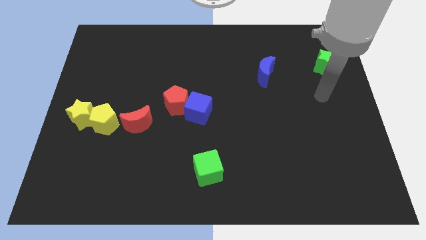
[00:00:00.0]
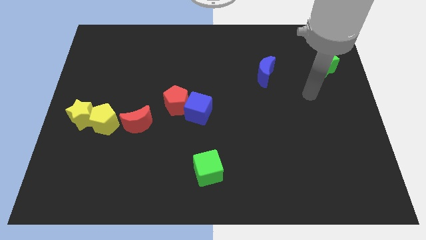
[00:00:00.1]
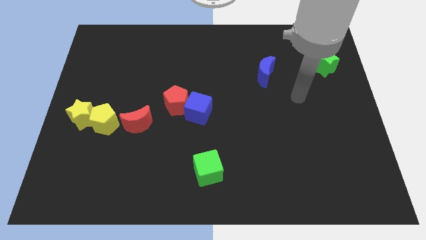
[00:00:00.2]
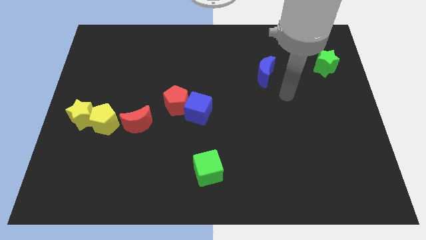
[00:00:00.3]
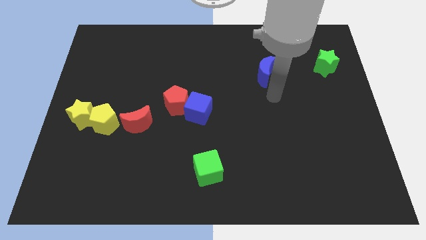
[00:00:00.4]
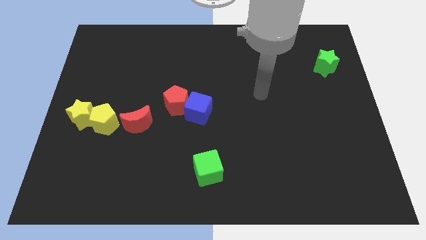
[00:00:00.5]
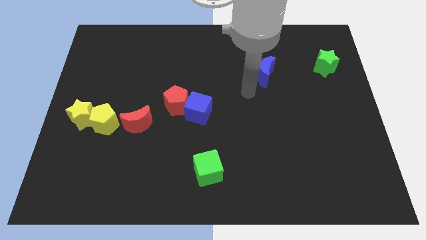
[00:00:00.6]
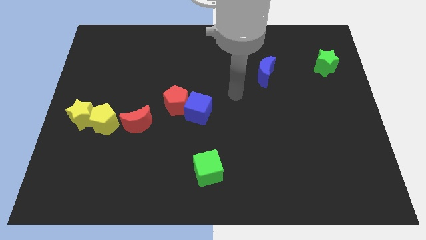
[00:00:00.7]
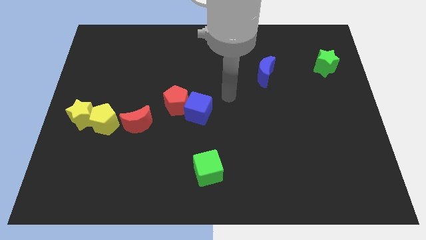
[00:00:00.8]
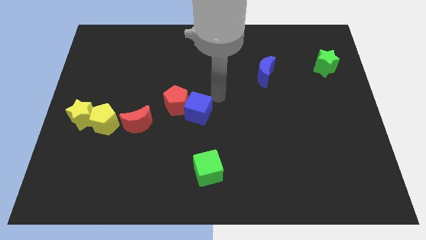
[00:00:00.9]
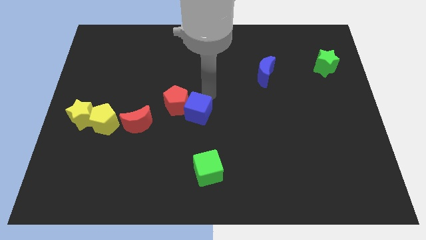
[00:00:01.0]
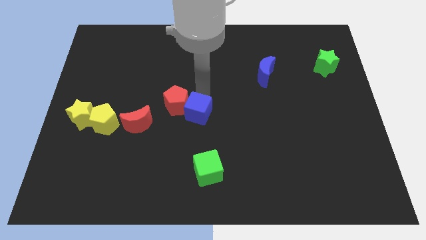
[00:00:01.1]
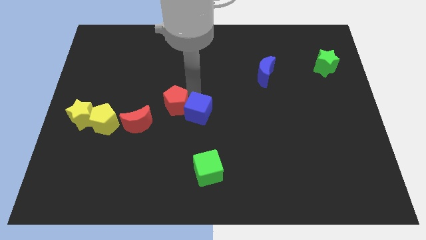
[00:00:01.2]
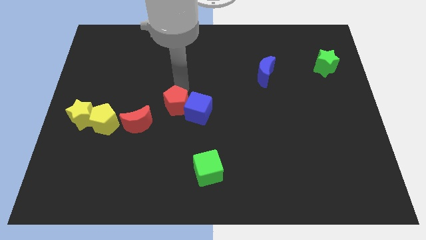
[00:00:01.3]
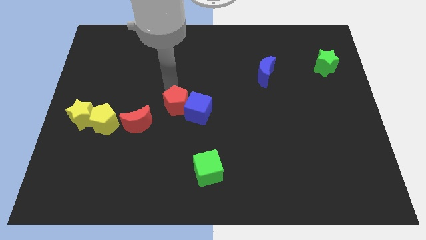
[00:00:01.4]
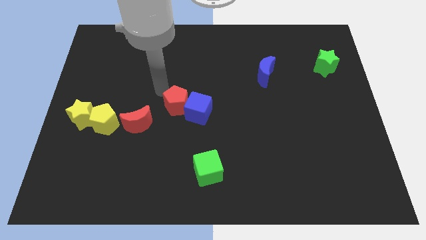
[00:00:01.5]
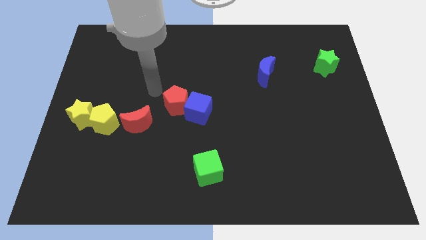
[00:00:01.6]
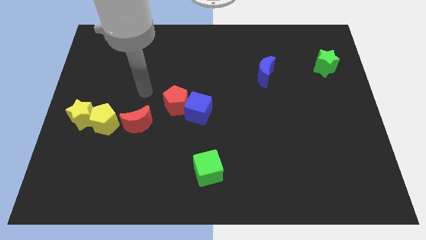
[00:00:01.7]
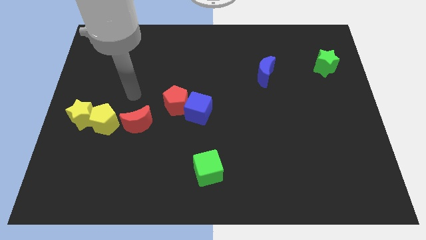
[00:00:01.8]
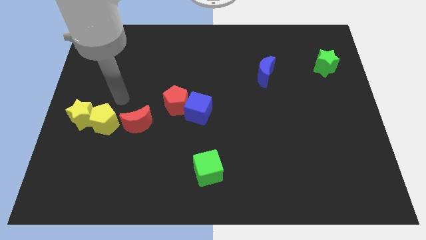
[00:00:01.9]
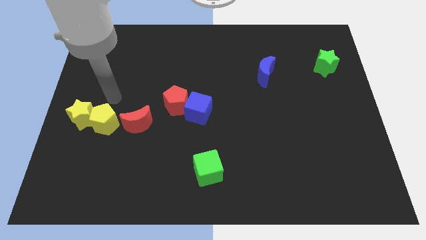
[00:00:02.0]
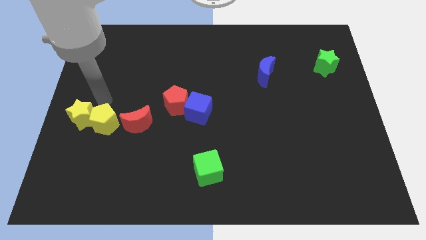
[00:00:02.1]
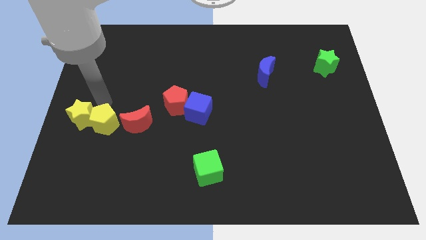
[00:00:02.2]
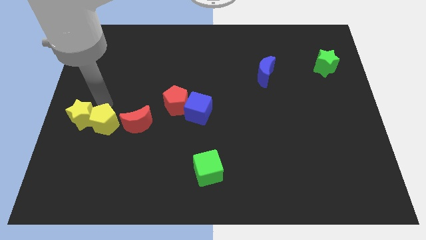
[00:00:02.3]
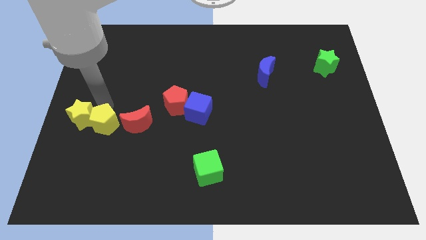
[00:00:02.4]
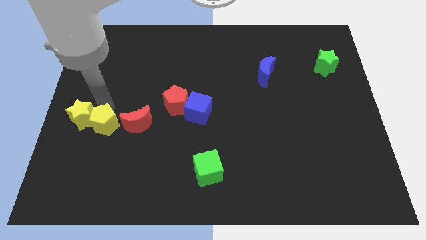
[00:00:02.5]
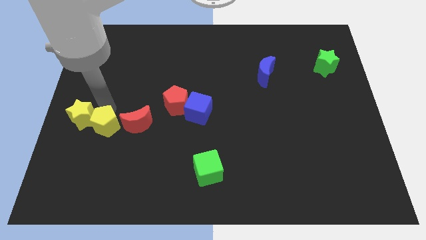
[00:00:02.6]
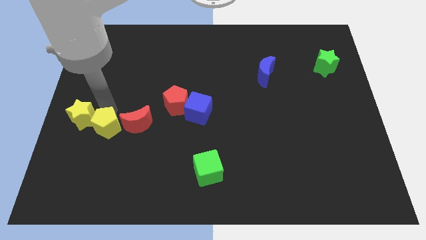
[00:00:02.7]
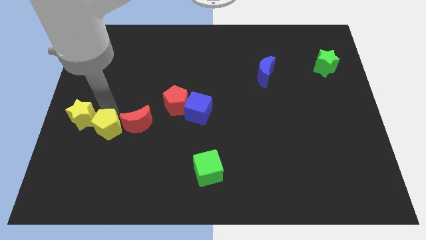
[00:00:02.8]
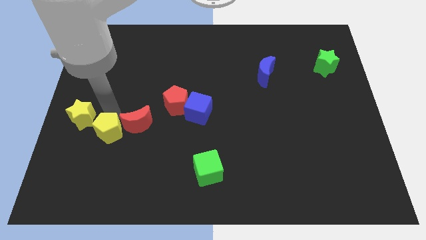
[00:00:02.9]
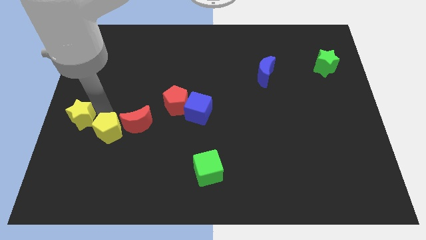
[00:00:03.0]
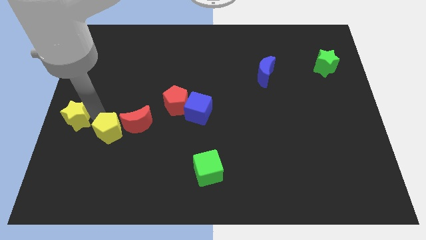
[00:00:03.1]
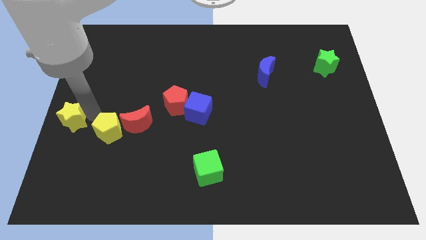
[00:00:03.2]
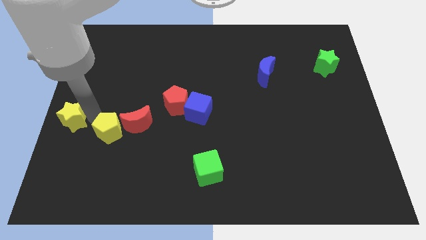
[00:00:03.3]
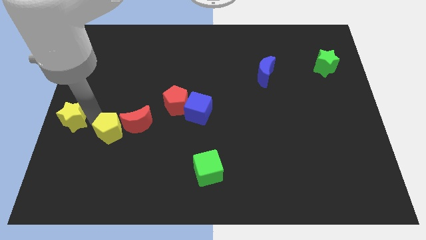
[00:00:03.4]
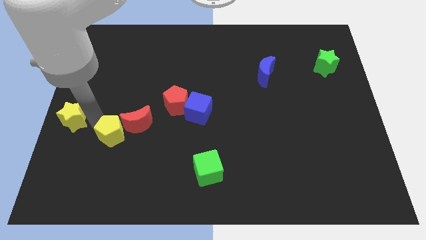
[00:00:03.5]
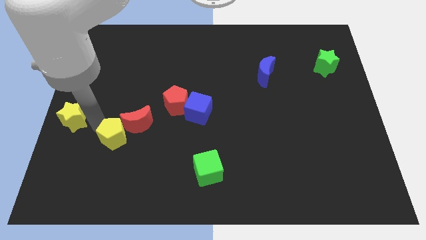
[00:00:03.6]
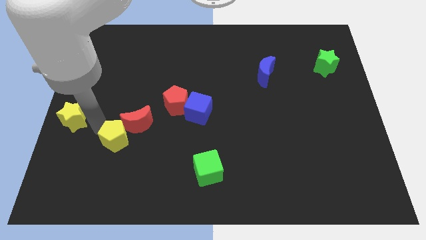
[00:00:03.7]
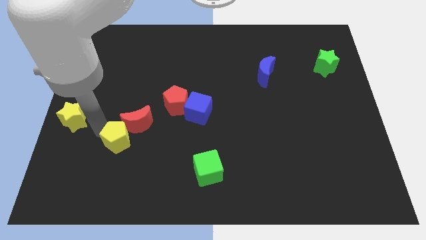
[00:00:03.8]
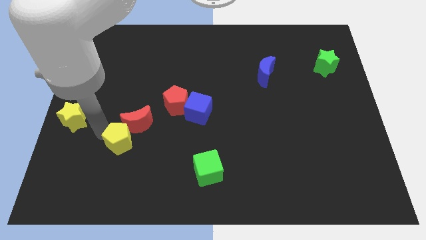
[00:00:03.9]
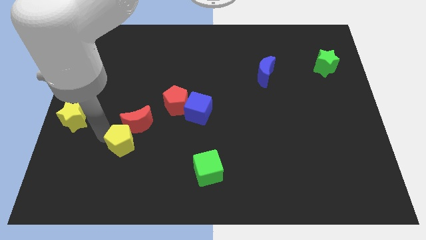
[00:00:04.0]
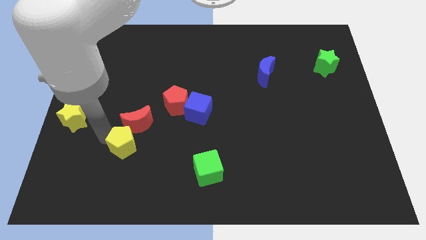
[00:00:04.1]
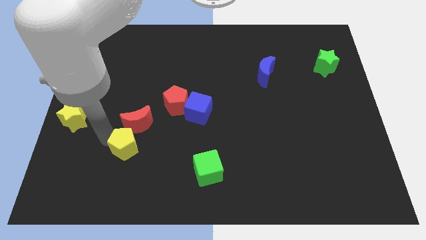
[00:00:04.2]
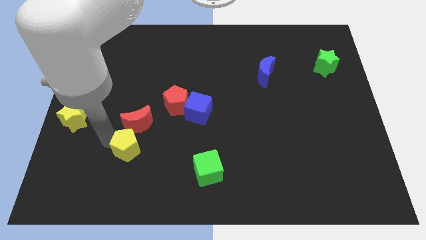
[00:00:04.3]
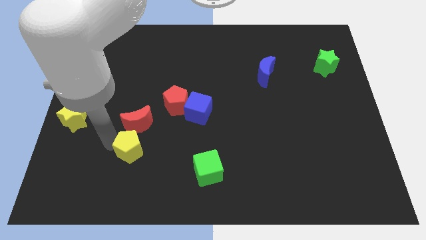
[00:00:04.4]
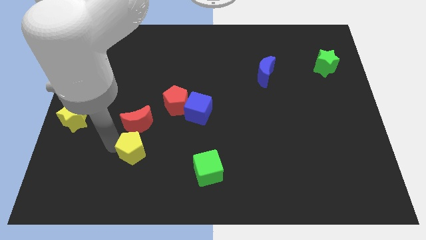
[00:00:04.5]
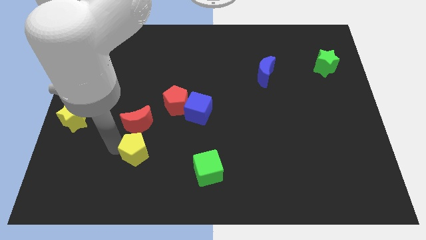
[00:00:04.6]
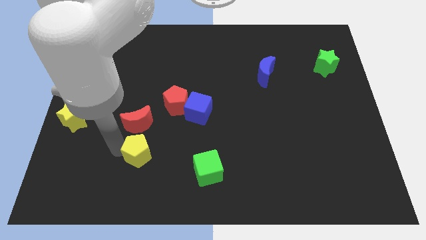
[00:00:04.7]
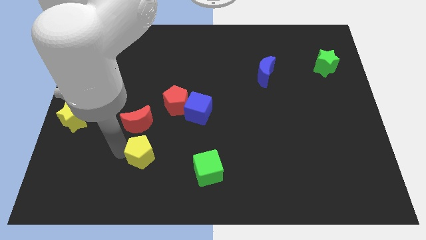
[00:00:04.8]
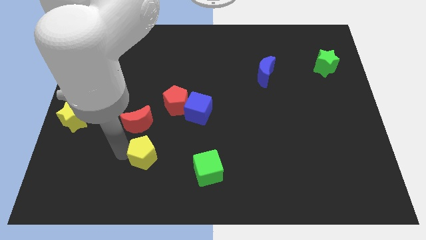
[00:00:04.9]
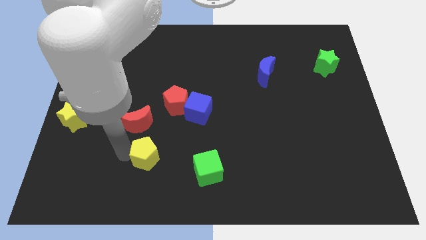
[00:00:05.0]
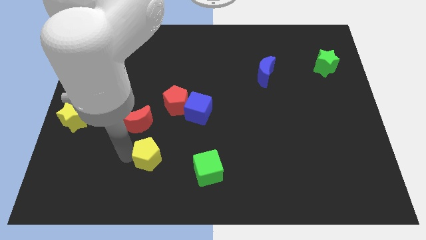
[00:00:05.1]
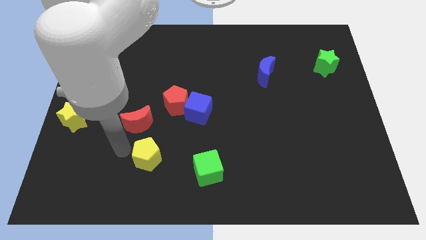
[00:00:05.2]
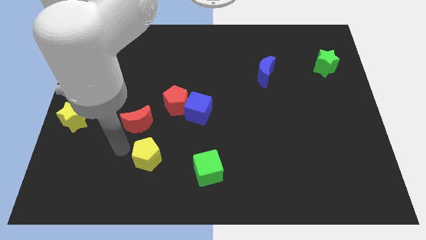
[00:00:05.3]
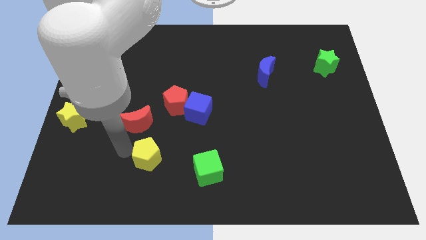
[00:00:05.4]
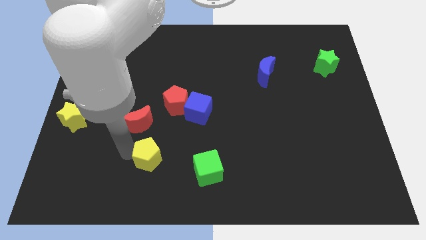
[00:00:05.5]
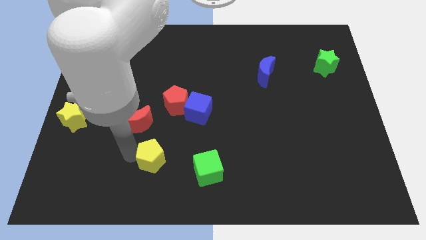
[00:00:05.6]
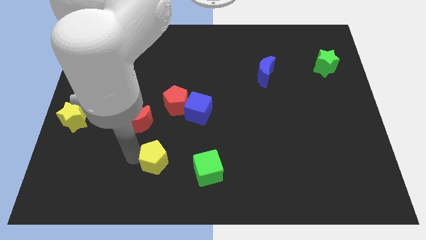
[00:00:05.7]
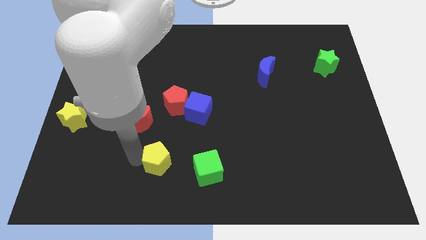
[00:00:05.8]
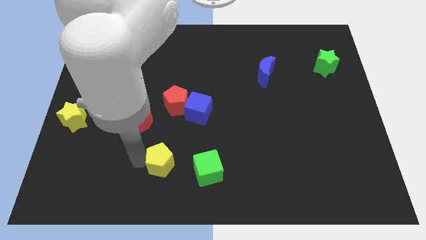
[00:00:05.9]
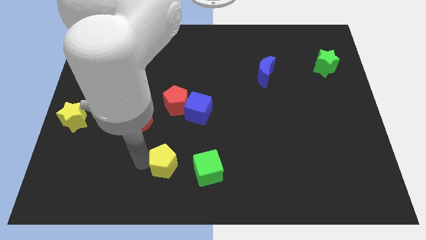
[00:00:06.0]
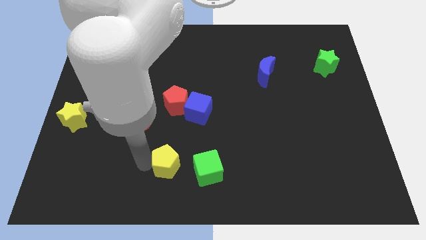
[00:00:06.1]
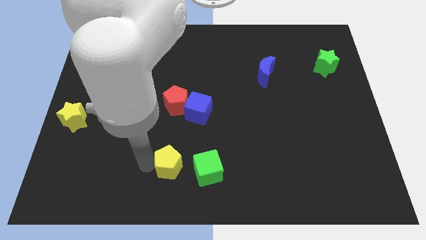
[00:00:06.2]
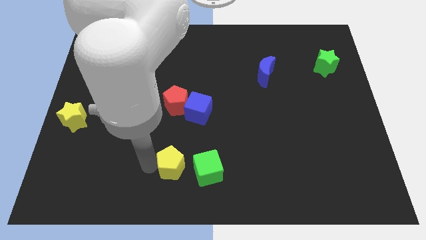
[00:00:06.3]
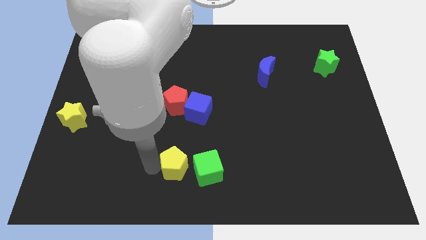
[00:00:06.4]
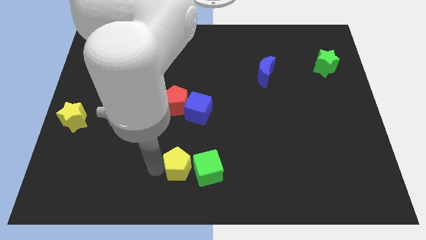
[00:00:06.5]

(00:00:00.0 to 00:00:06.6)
move the yellow pentagon close to the green cube

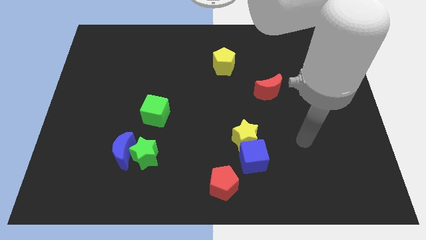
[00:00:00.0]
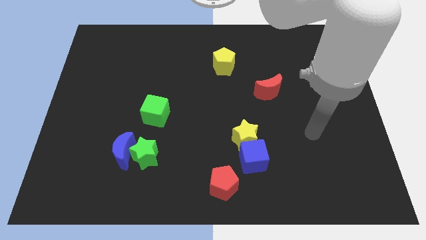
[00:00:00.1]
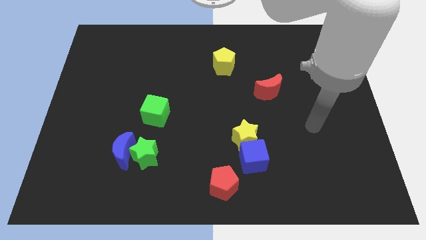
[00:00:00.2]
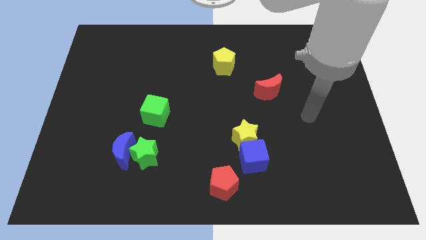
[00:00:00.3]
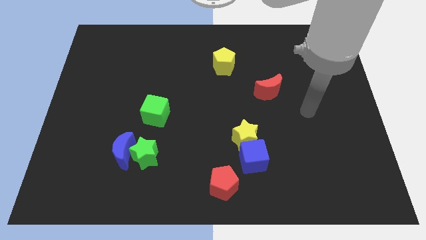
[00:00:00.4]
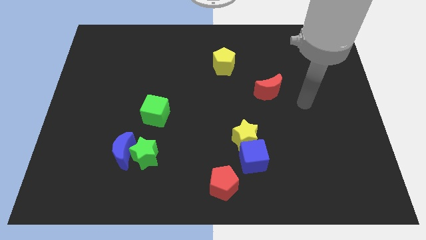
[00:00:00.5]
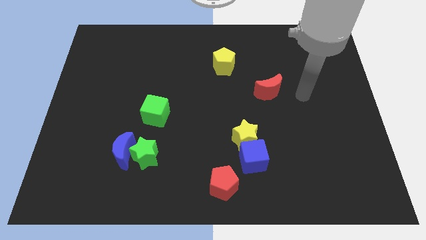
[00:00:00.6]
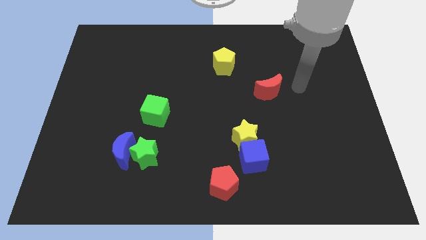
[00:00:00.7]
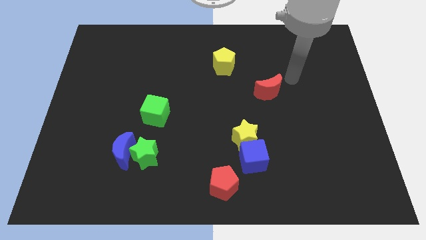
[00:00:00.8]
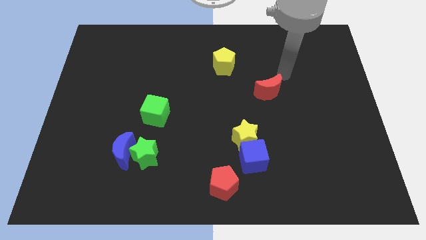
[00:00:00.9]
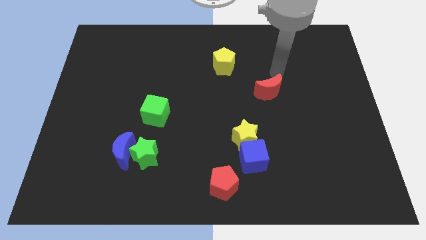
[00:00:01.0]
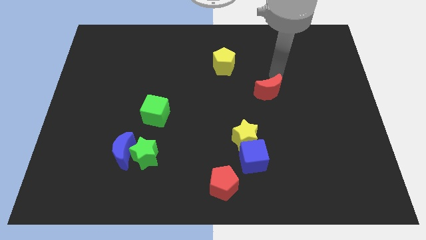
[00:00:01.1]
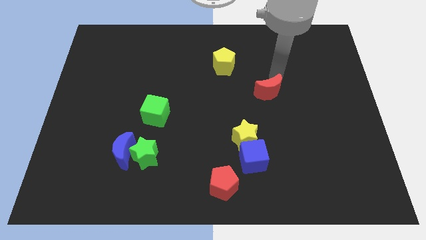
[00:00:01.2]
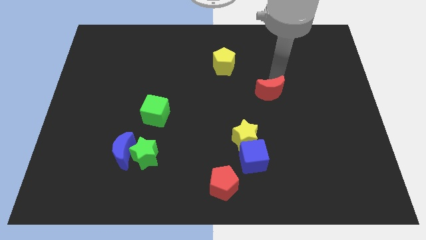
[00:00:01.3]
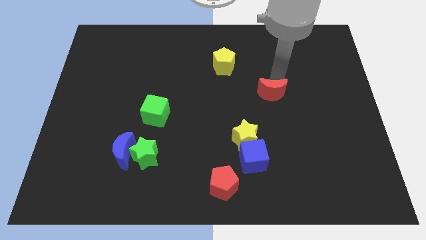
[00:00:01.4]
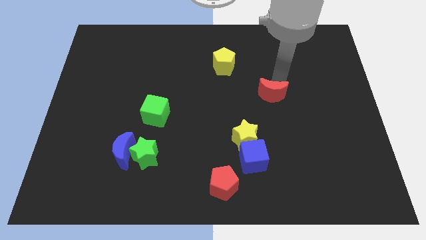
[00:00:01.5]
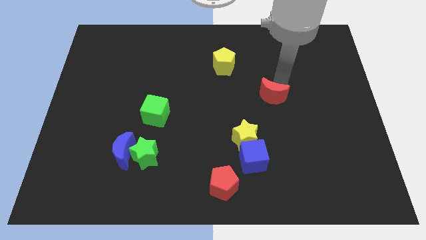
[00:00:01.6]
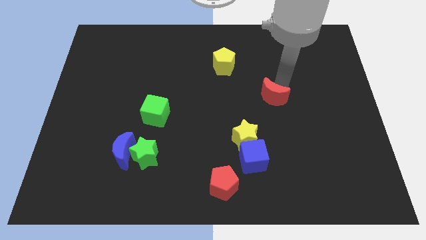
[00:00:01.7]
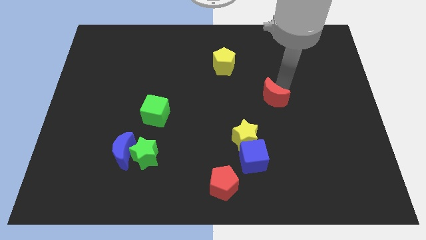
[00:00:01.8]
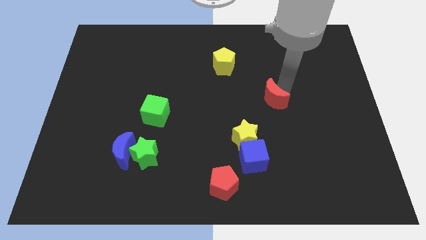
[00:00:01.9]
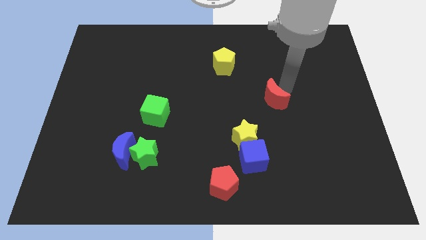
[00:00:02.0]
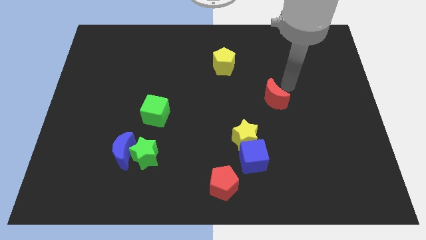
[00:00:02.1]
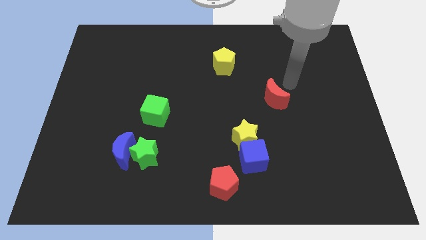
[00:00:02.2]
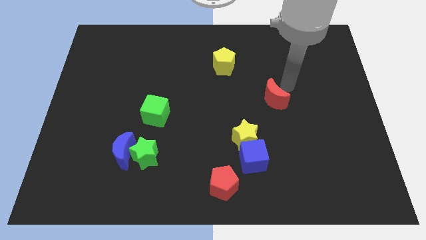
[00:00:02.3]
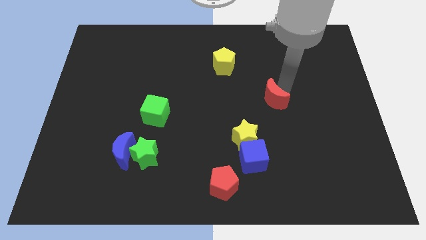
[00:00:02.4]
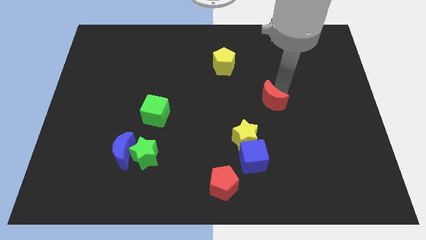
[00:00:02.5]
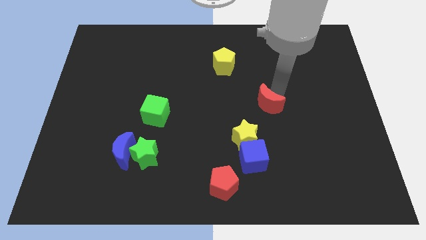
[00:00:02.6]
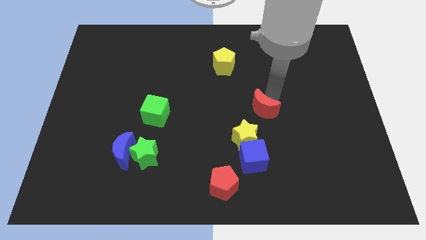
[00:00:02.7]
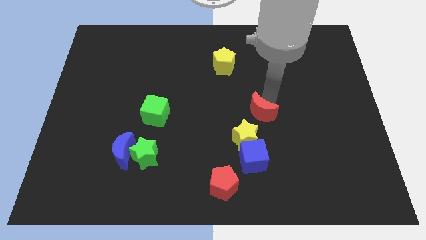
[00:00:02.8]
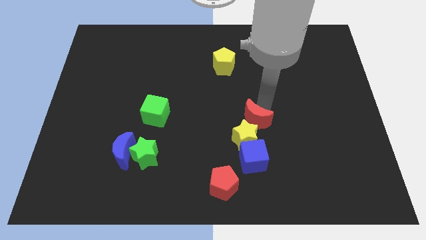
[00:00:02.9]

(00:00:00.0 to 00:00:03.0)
move the red moon close to the yellow star
